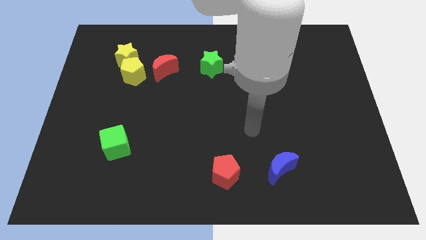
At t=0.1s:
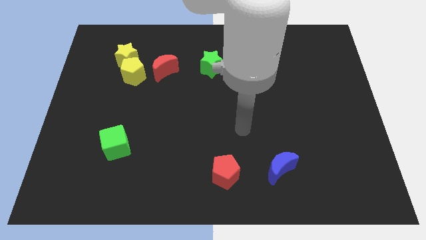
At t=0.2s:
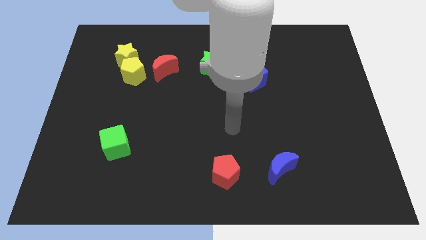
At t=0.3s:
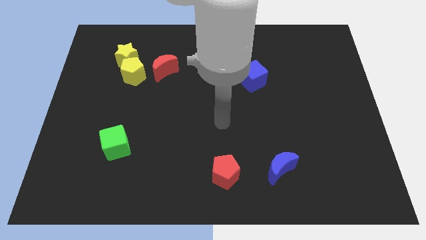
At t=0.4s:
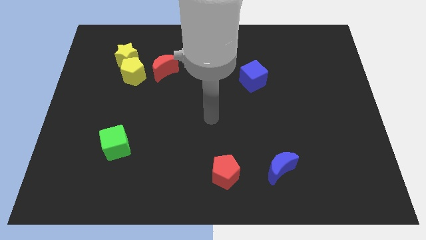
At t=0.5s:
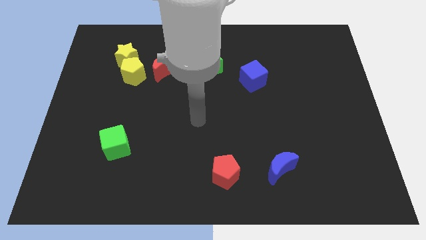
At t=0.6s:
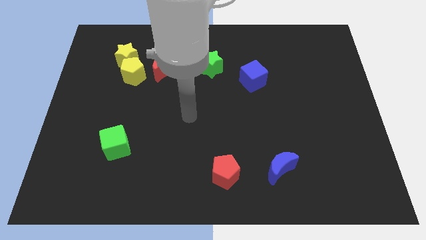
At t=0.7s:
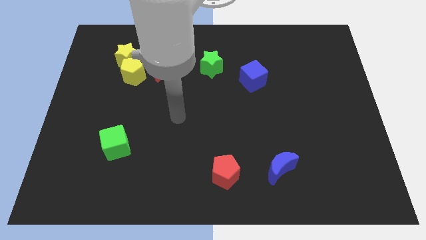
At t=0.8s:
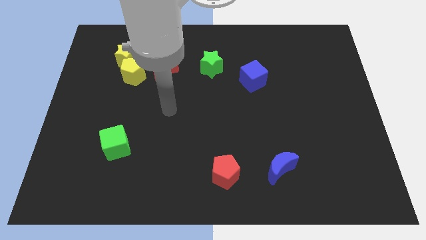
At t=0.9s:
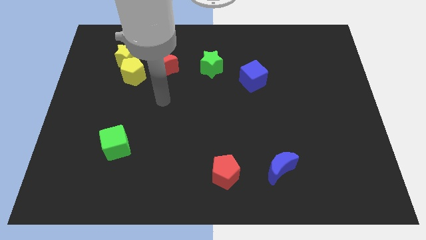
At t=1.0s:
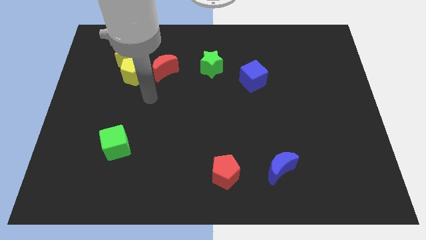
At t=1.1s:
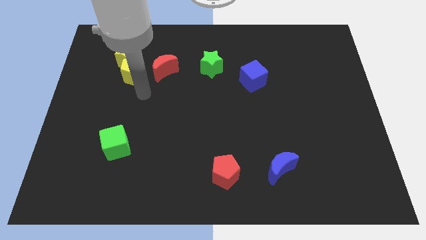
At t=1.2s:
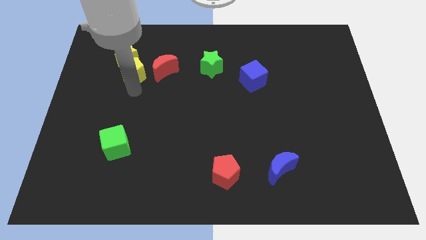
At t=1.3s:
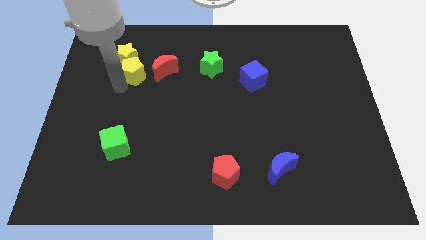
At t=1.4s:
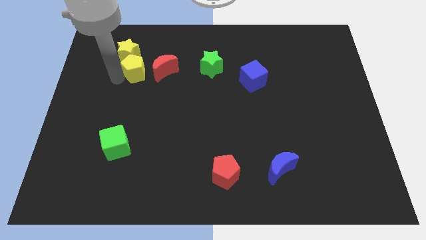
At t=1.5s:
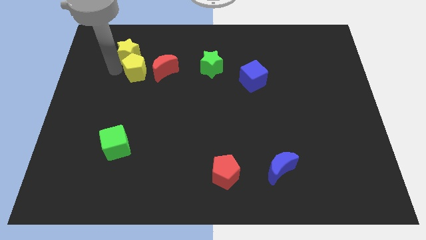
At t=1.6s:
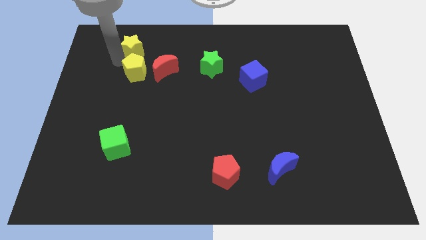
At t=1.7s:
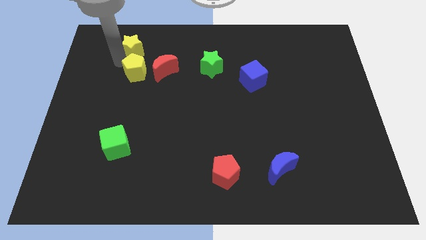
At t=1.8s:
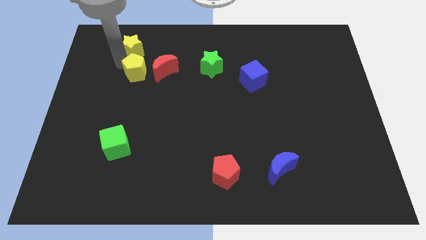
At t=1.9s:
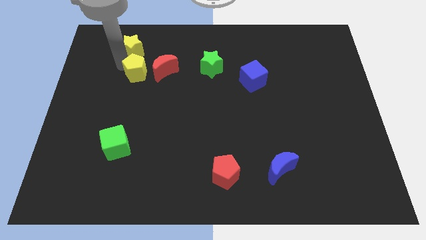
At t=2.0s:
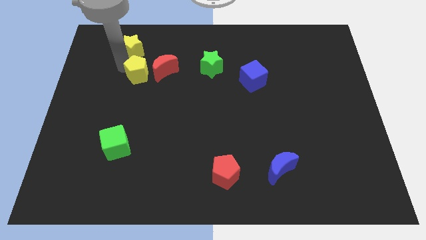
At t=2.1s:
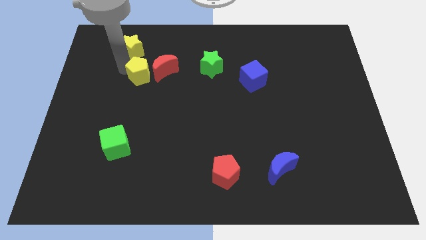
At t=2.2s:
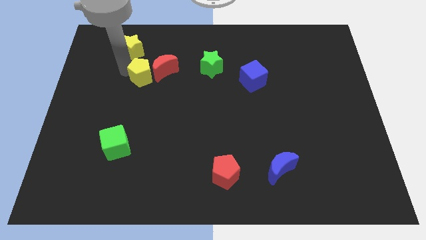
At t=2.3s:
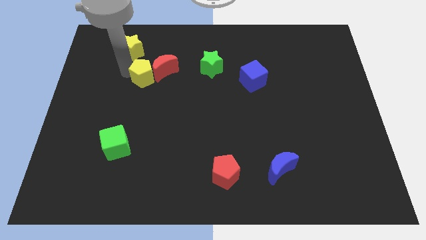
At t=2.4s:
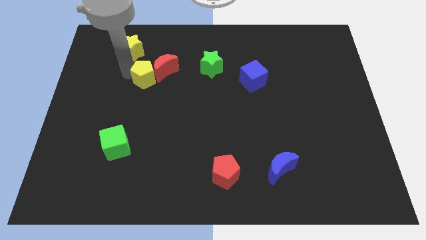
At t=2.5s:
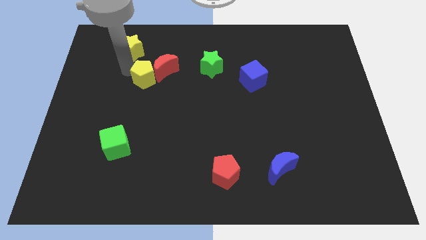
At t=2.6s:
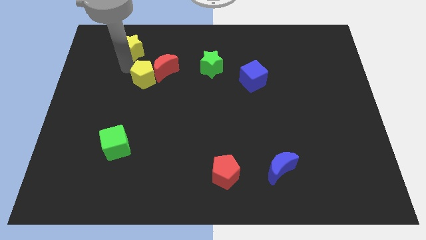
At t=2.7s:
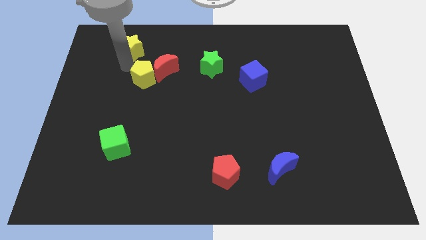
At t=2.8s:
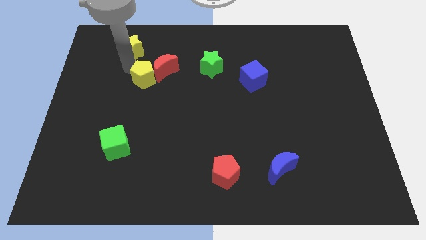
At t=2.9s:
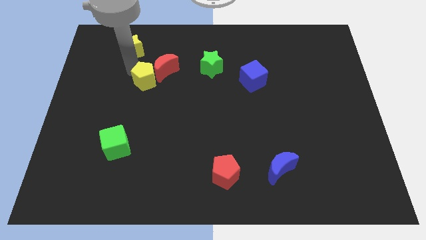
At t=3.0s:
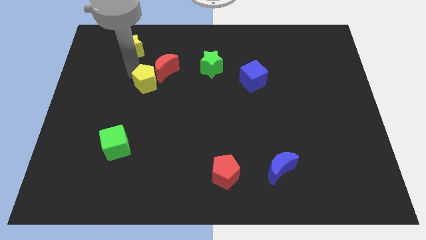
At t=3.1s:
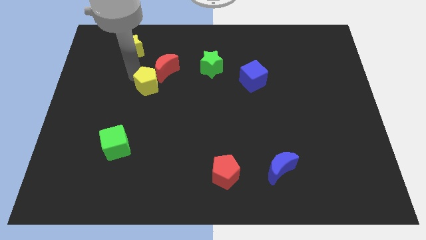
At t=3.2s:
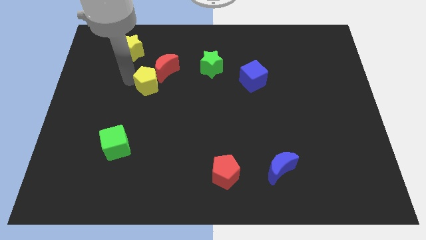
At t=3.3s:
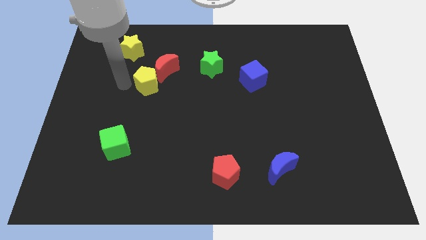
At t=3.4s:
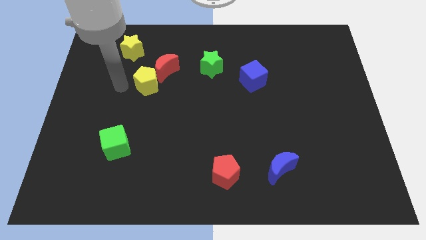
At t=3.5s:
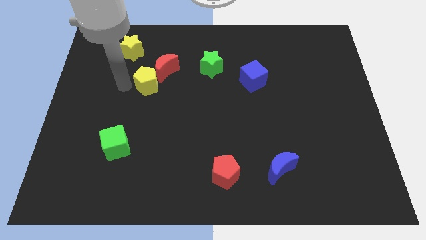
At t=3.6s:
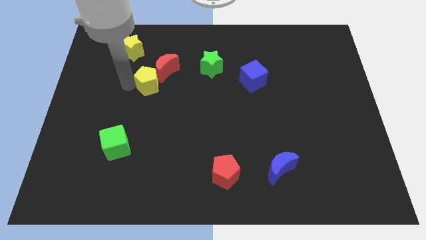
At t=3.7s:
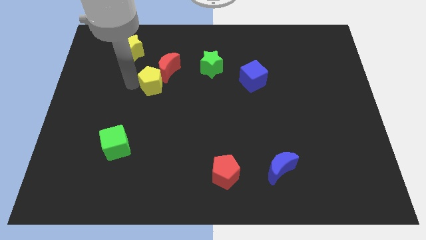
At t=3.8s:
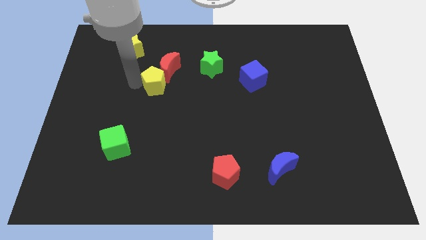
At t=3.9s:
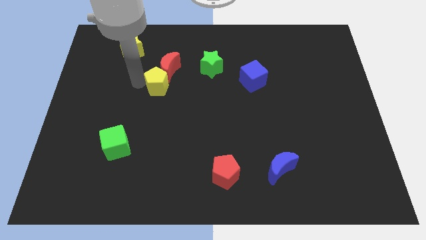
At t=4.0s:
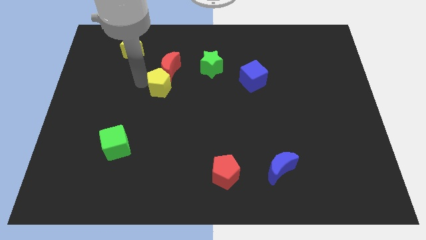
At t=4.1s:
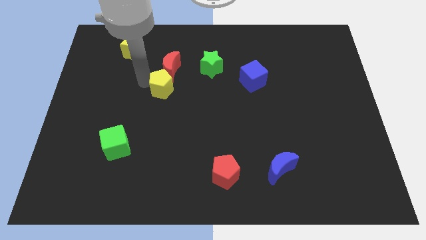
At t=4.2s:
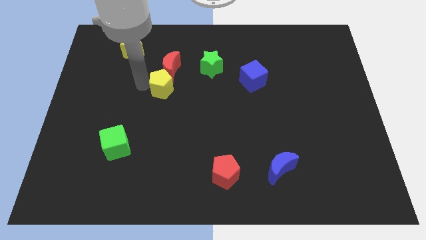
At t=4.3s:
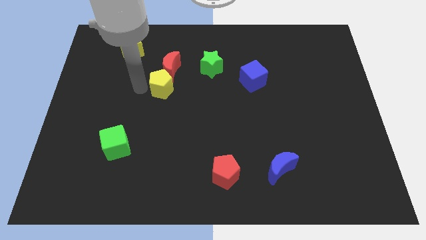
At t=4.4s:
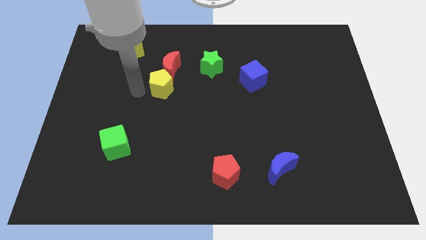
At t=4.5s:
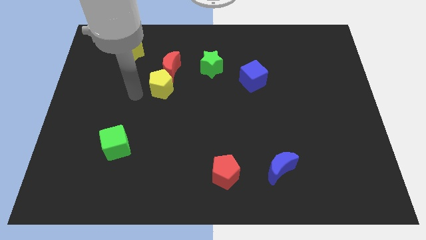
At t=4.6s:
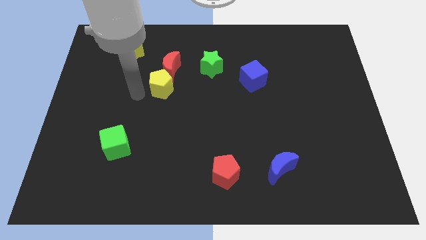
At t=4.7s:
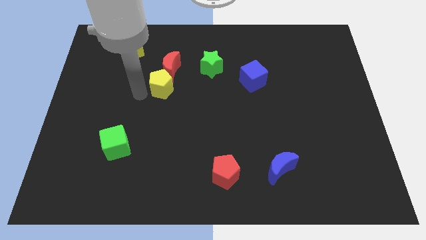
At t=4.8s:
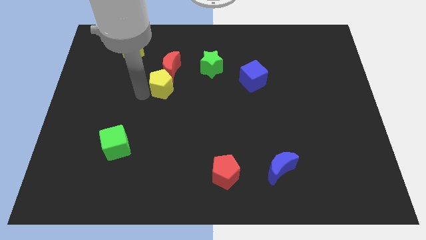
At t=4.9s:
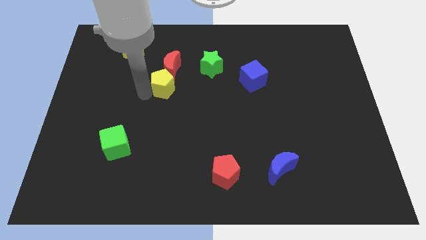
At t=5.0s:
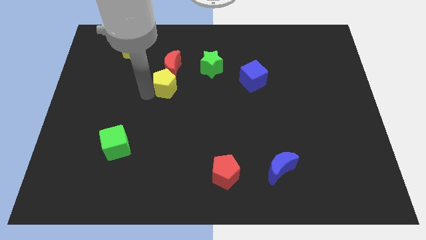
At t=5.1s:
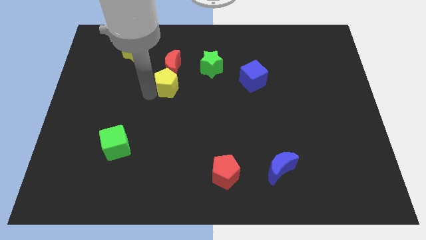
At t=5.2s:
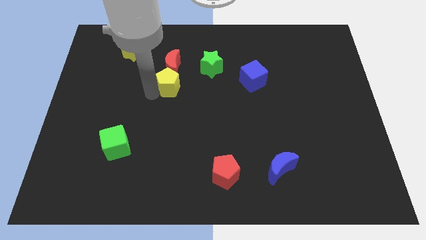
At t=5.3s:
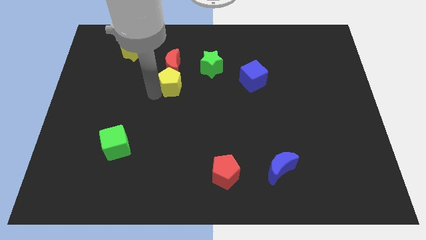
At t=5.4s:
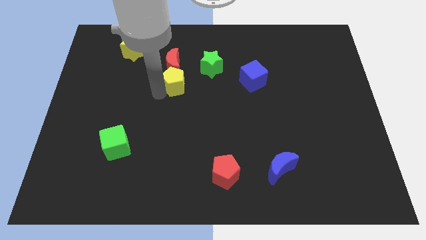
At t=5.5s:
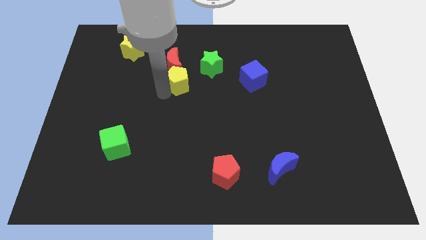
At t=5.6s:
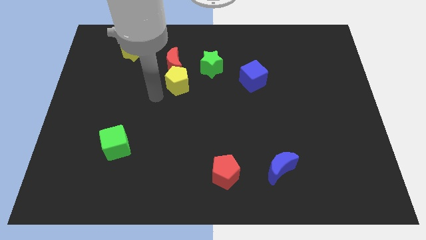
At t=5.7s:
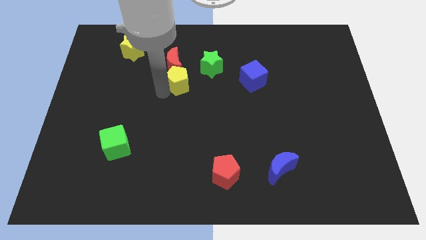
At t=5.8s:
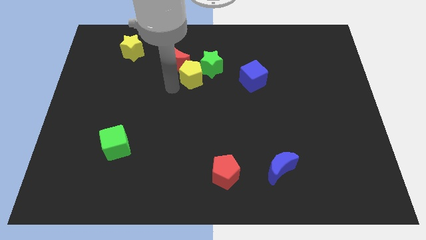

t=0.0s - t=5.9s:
slide the yellow pentagon next to the green star

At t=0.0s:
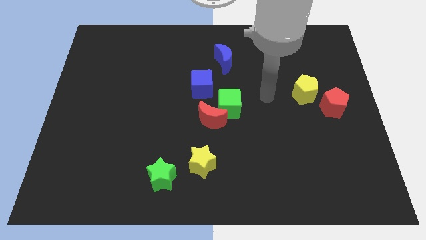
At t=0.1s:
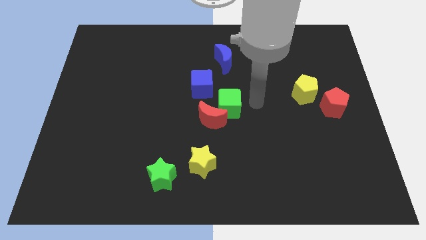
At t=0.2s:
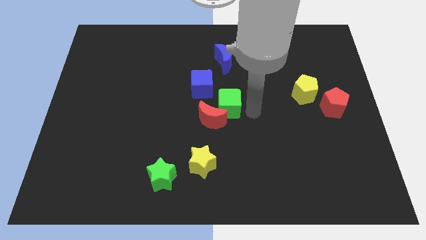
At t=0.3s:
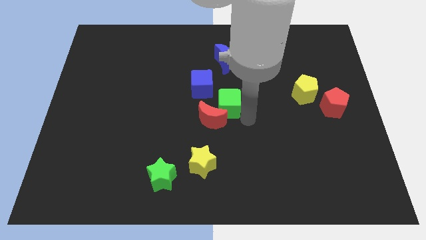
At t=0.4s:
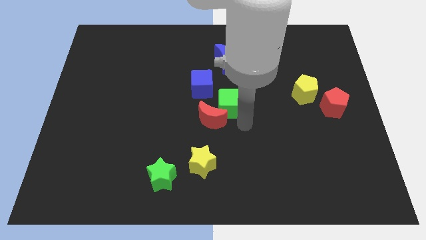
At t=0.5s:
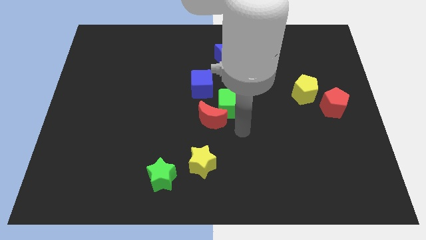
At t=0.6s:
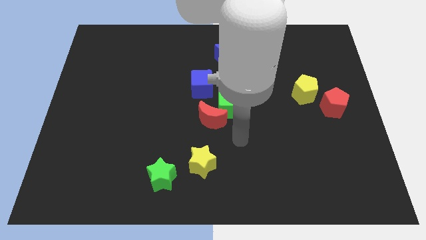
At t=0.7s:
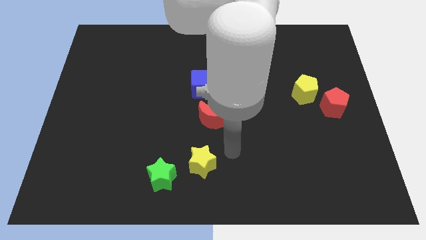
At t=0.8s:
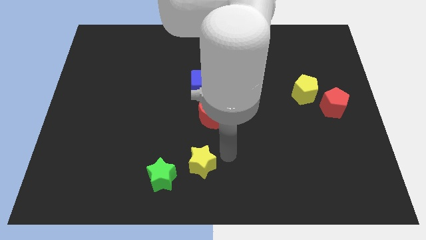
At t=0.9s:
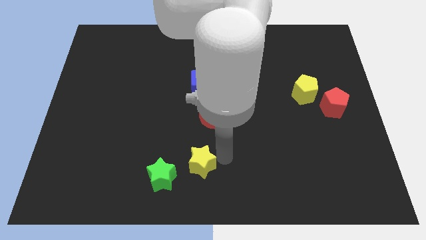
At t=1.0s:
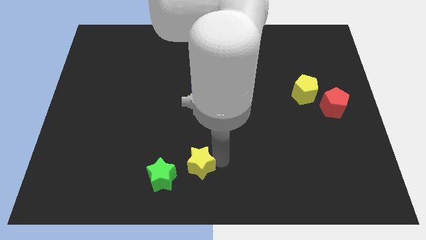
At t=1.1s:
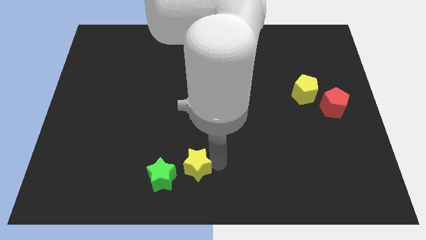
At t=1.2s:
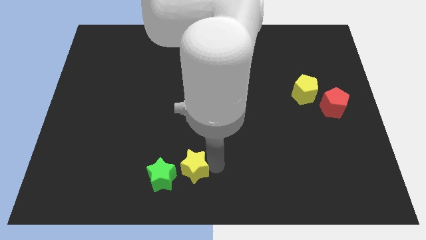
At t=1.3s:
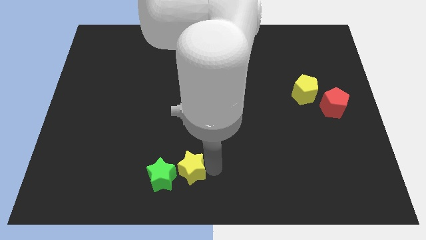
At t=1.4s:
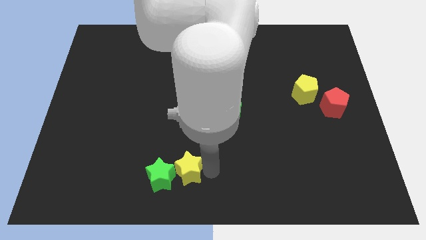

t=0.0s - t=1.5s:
put the yellow star towards the green star

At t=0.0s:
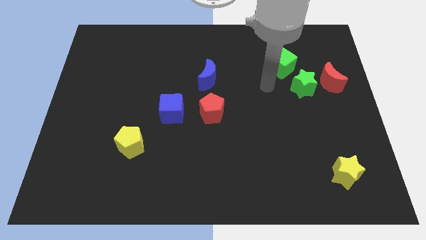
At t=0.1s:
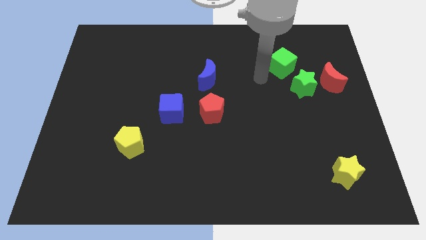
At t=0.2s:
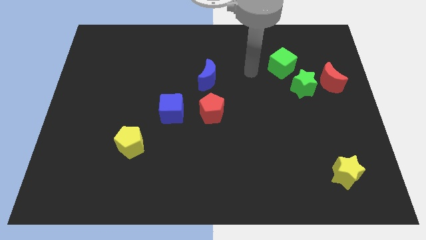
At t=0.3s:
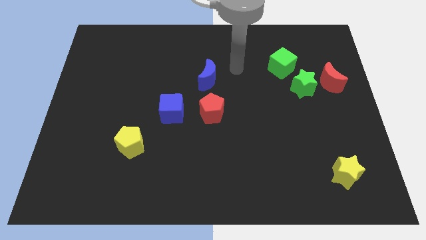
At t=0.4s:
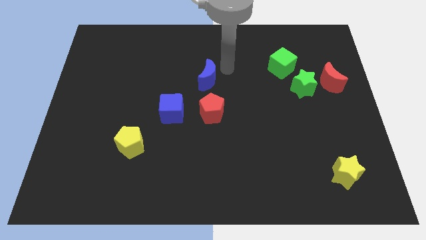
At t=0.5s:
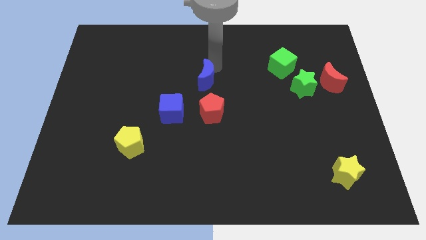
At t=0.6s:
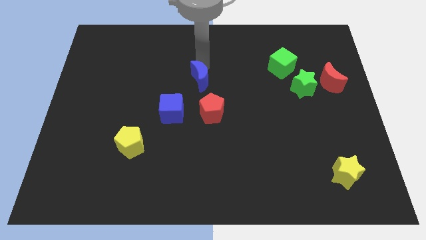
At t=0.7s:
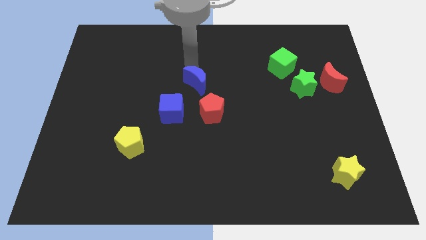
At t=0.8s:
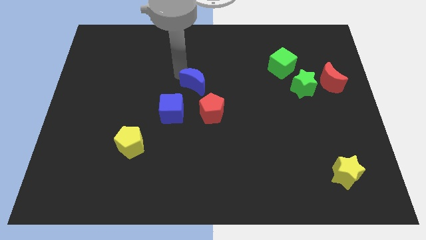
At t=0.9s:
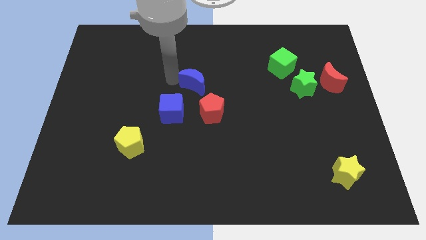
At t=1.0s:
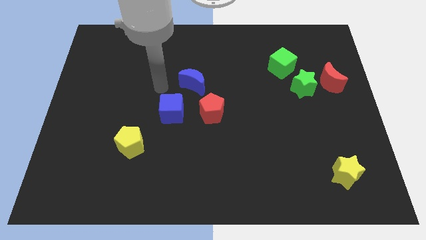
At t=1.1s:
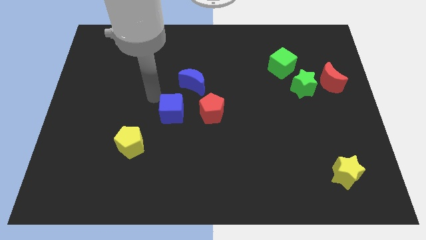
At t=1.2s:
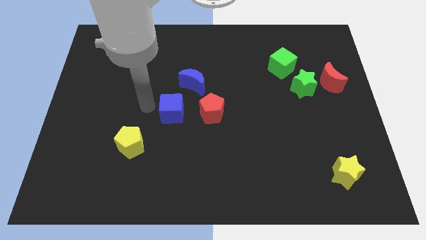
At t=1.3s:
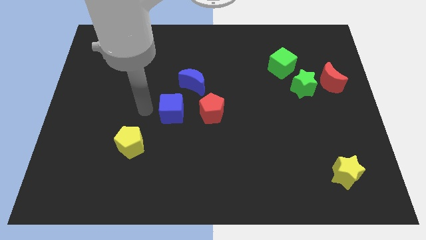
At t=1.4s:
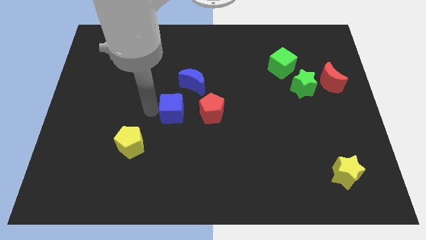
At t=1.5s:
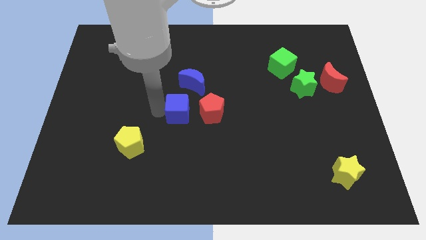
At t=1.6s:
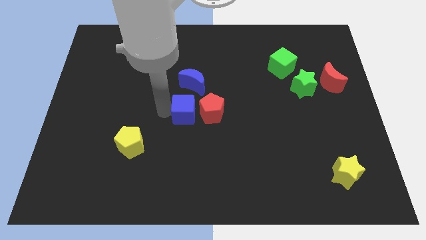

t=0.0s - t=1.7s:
put the blue cube next to the red pentagon
